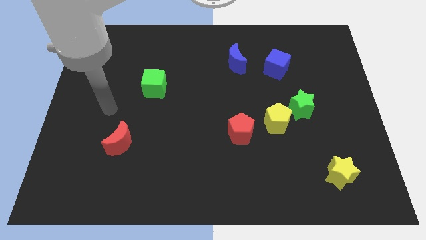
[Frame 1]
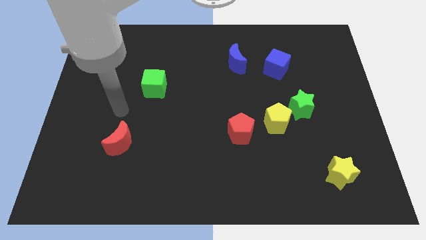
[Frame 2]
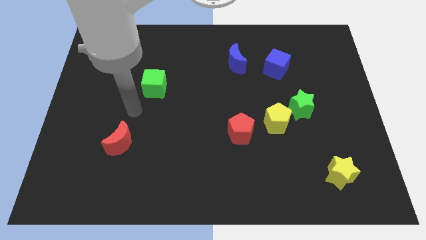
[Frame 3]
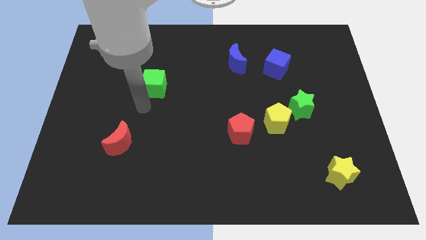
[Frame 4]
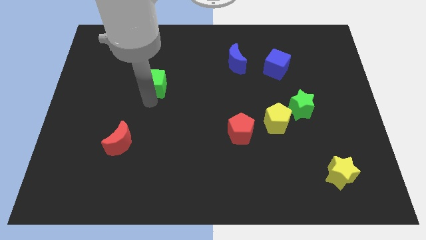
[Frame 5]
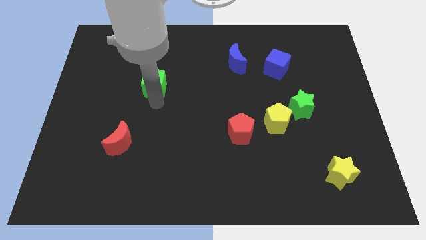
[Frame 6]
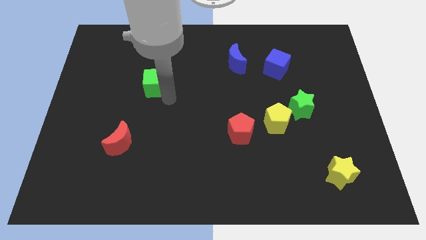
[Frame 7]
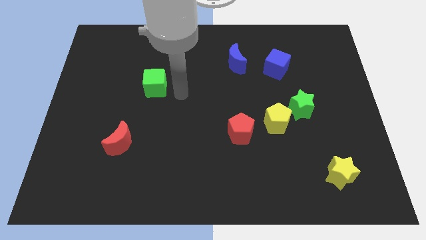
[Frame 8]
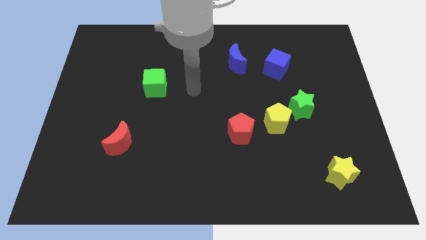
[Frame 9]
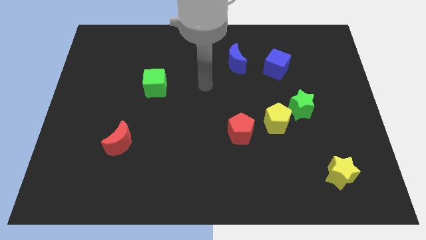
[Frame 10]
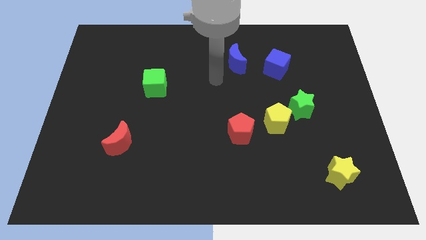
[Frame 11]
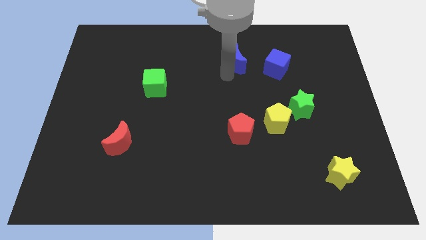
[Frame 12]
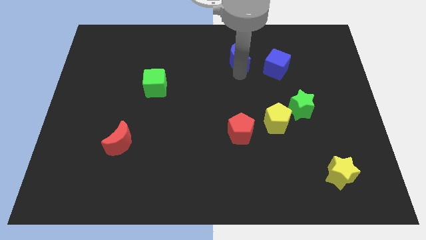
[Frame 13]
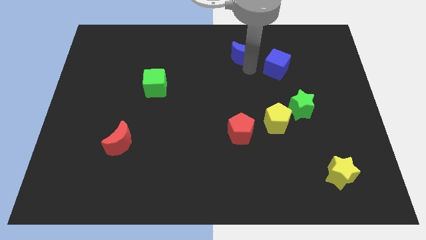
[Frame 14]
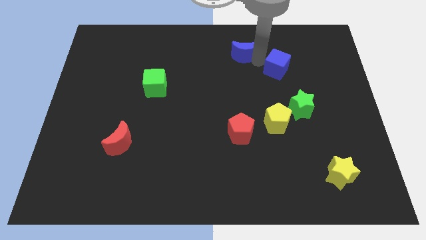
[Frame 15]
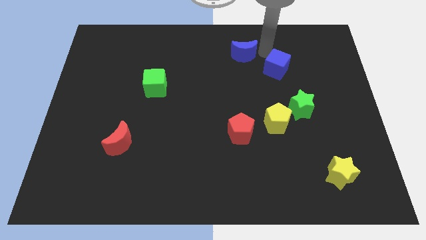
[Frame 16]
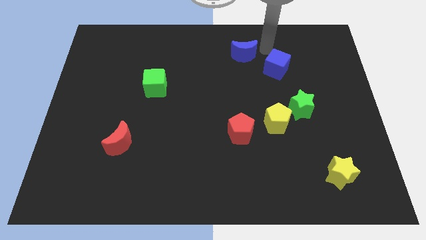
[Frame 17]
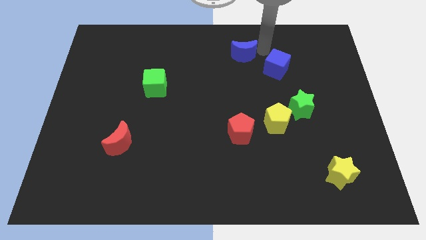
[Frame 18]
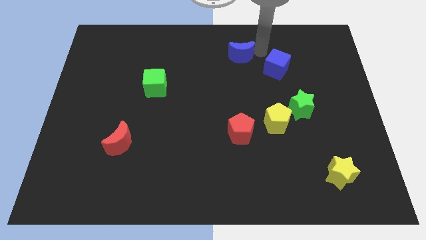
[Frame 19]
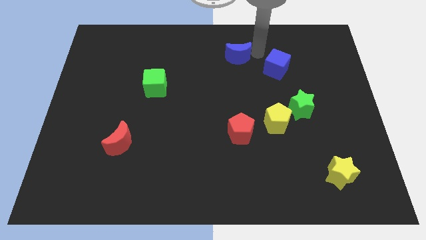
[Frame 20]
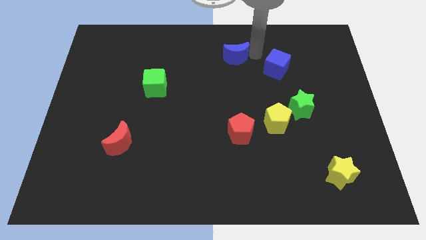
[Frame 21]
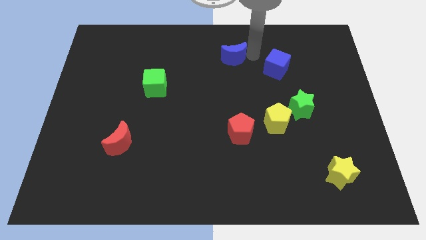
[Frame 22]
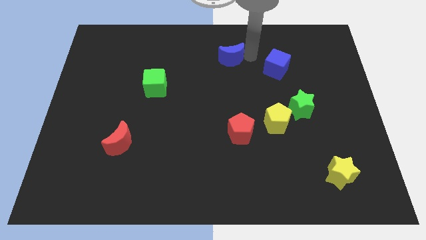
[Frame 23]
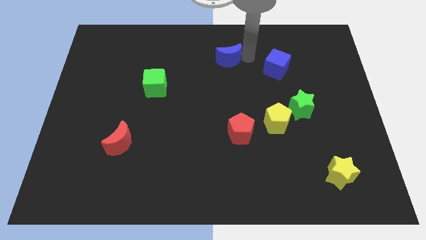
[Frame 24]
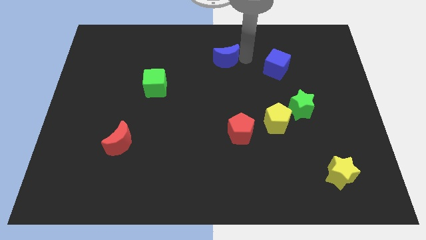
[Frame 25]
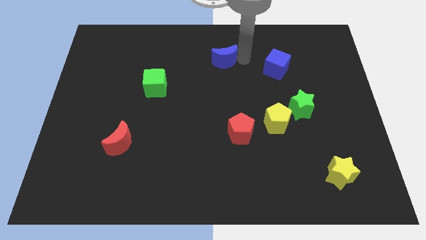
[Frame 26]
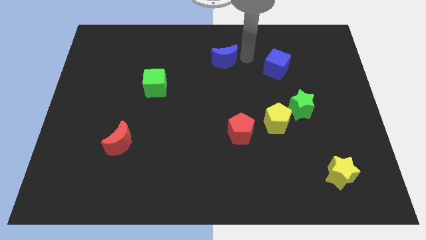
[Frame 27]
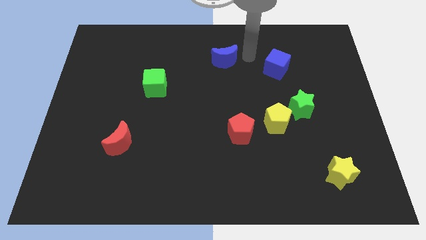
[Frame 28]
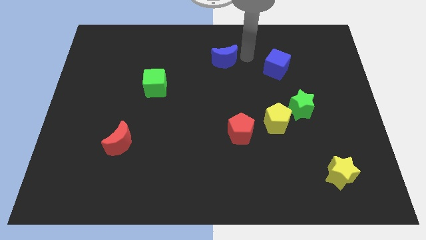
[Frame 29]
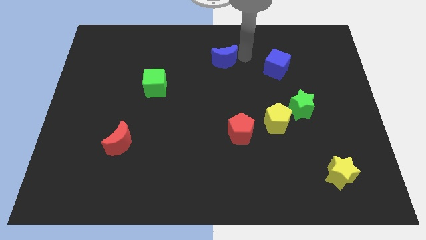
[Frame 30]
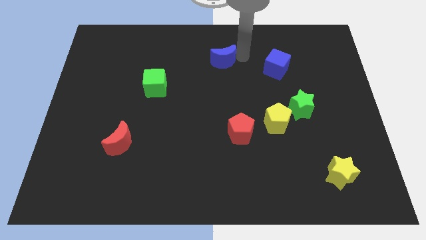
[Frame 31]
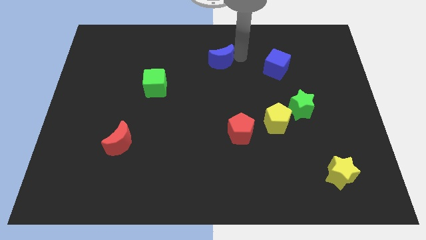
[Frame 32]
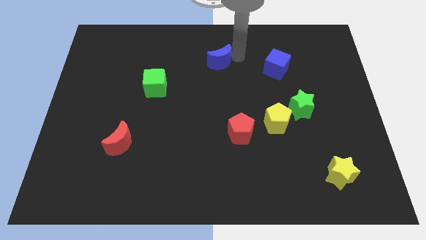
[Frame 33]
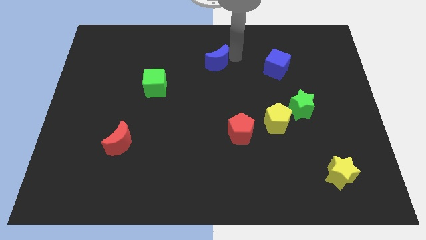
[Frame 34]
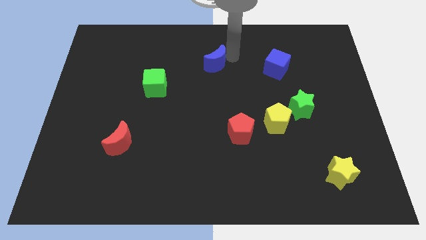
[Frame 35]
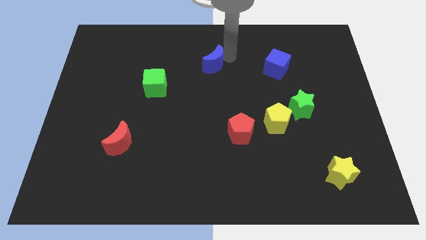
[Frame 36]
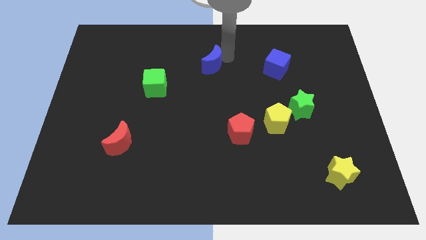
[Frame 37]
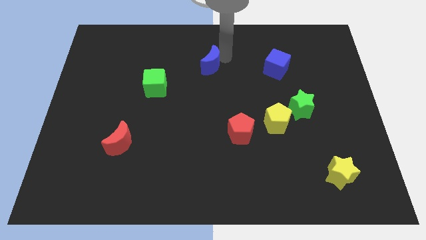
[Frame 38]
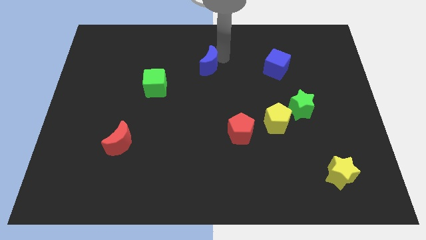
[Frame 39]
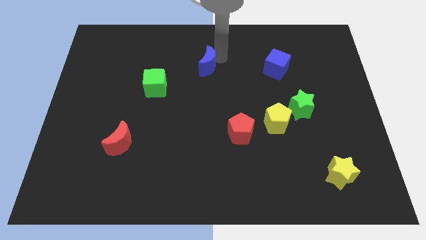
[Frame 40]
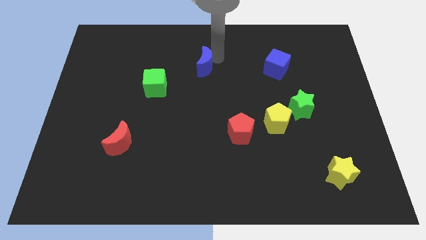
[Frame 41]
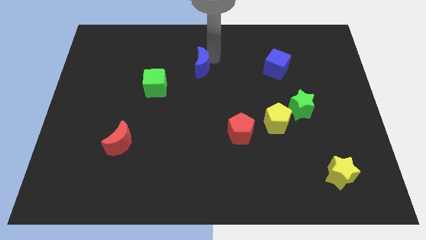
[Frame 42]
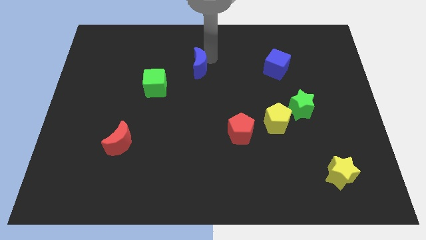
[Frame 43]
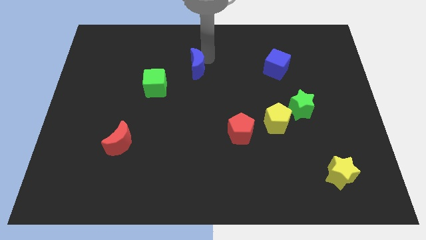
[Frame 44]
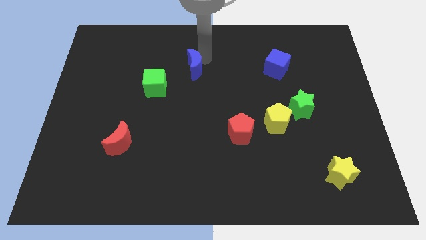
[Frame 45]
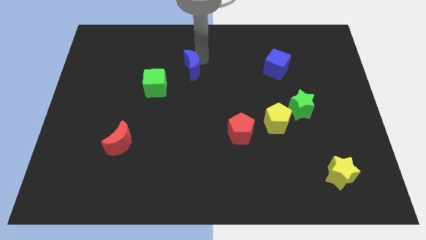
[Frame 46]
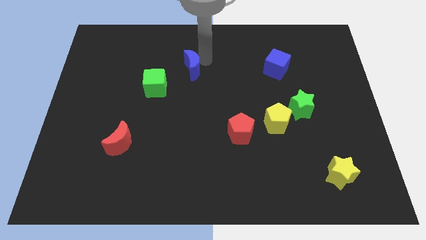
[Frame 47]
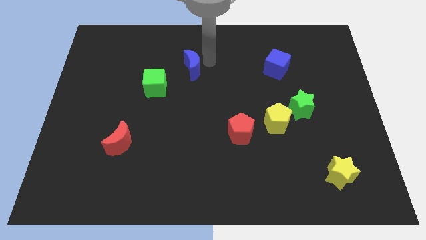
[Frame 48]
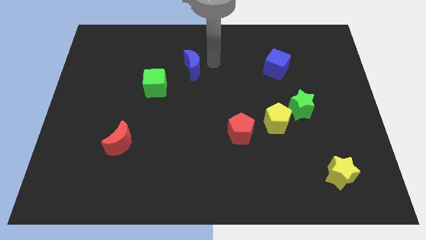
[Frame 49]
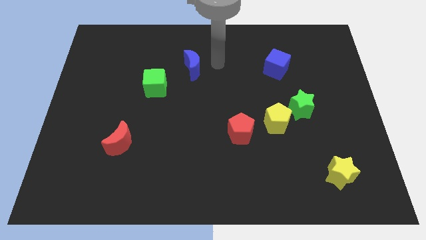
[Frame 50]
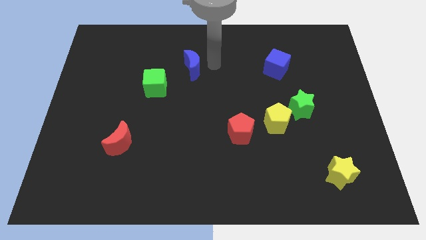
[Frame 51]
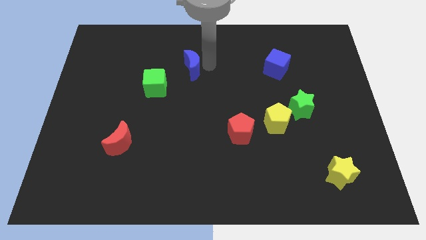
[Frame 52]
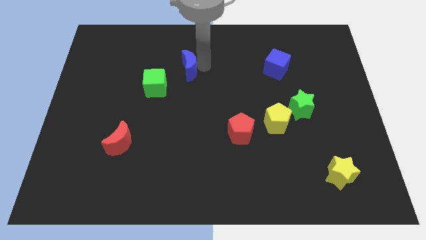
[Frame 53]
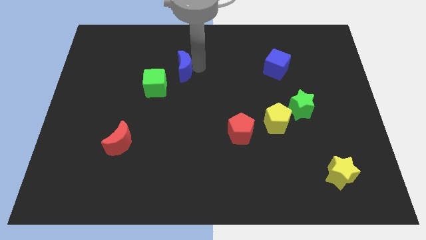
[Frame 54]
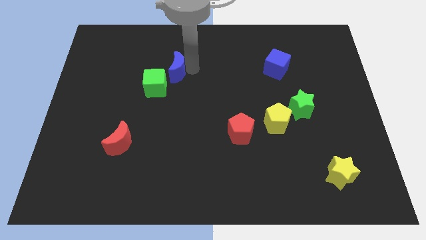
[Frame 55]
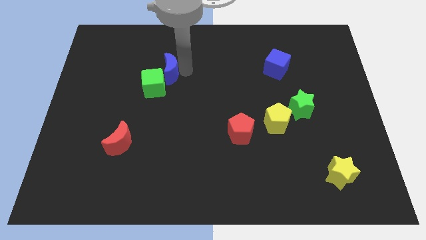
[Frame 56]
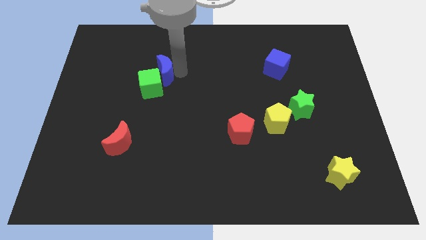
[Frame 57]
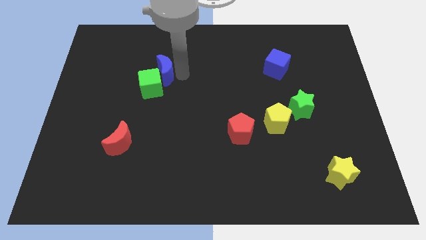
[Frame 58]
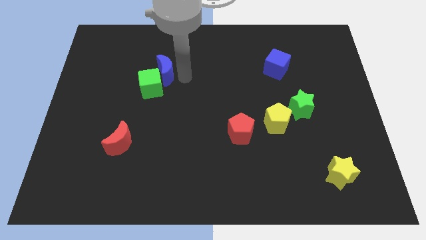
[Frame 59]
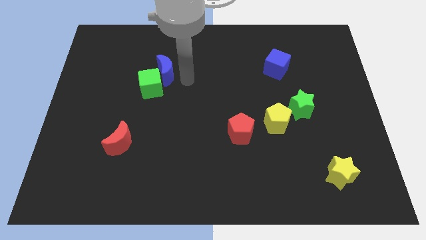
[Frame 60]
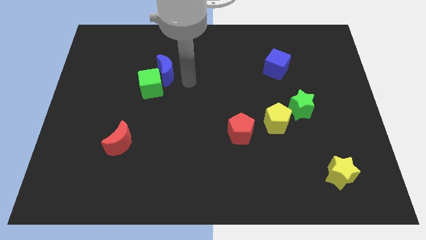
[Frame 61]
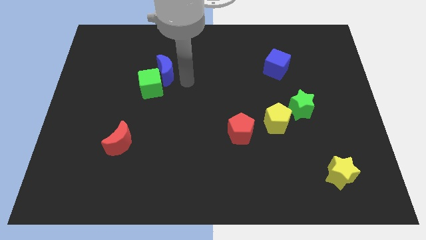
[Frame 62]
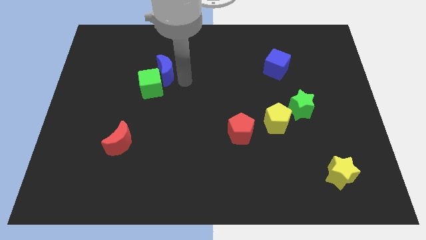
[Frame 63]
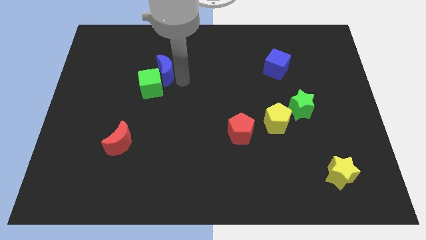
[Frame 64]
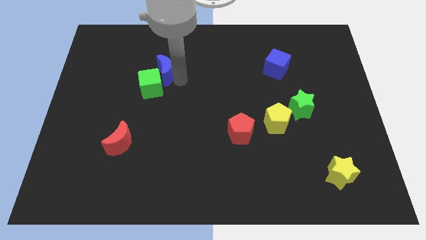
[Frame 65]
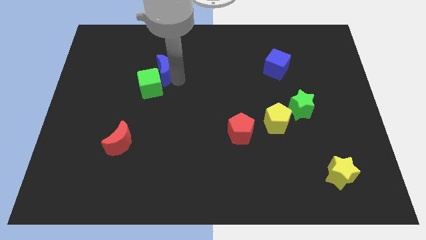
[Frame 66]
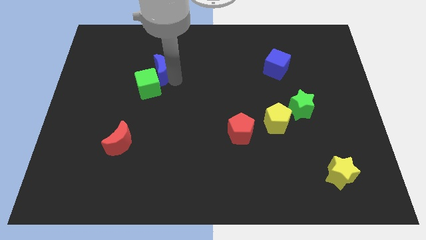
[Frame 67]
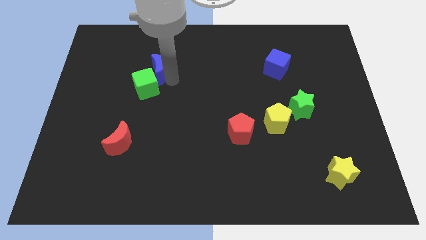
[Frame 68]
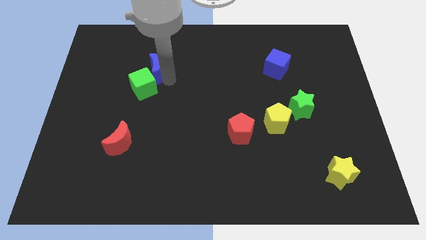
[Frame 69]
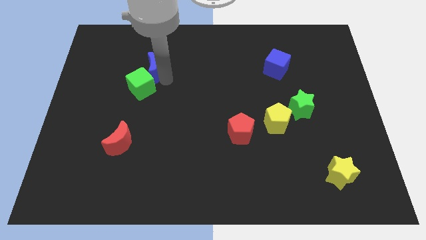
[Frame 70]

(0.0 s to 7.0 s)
push the blue moon to the left

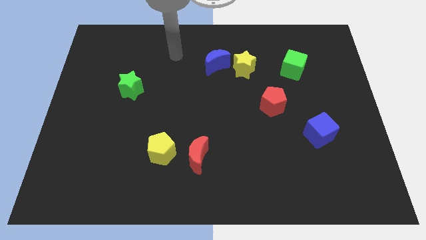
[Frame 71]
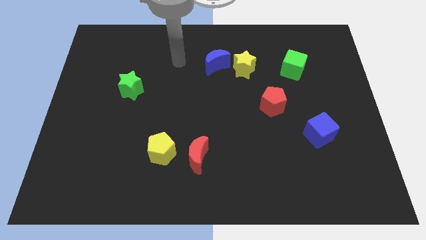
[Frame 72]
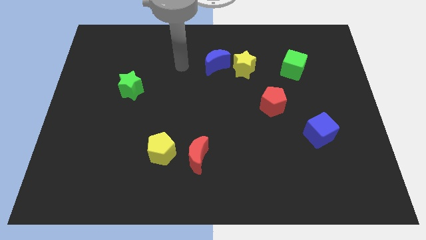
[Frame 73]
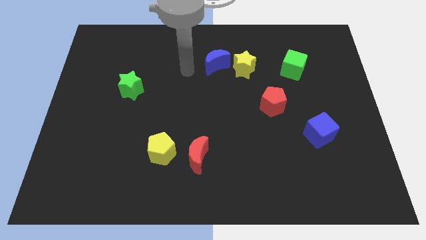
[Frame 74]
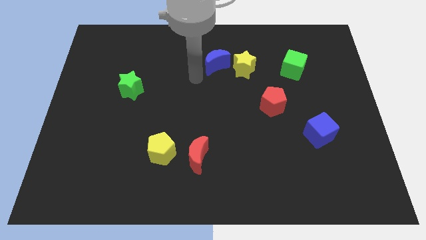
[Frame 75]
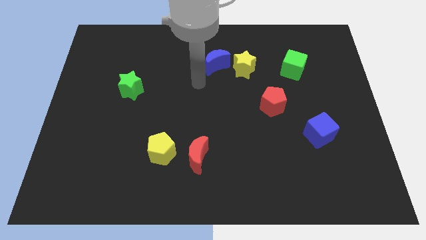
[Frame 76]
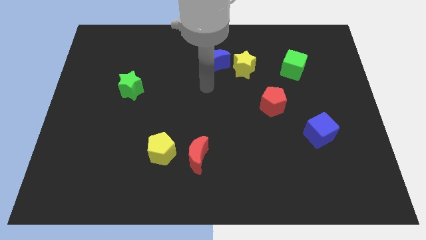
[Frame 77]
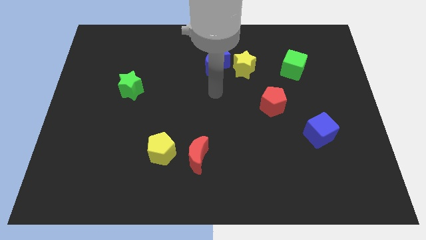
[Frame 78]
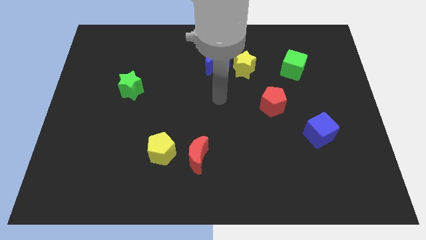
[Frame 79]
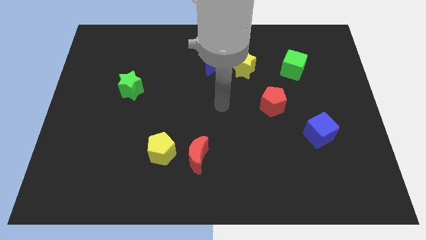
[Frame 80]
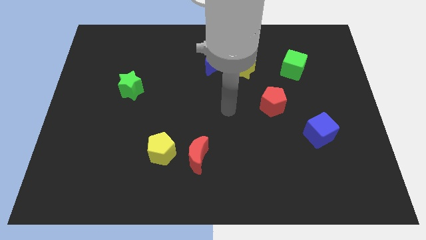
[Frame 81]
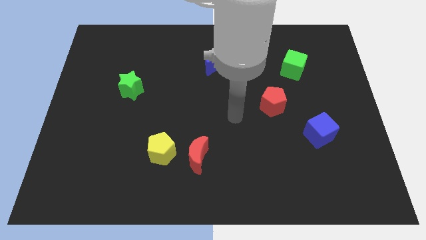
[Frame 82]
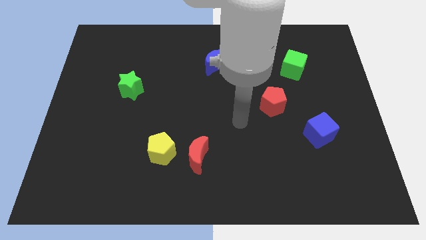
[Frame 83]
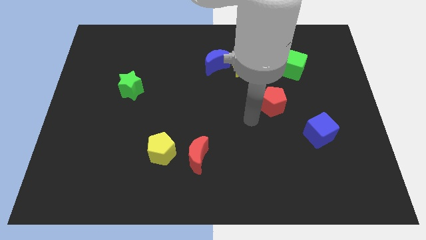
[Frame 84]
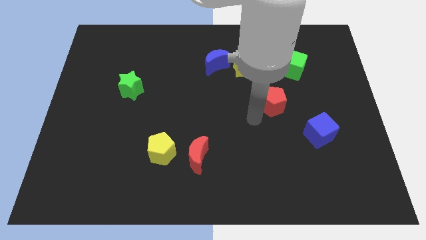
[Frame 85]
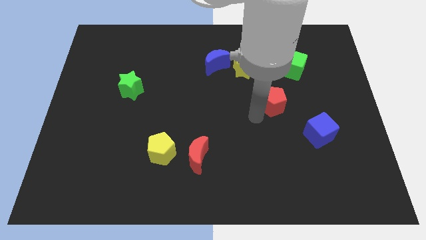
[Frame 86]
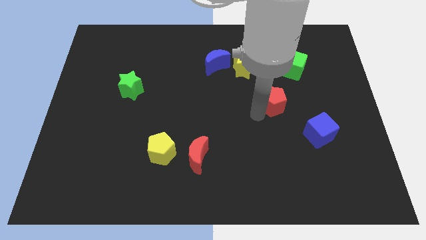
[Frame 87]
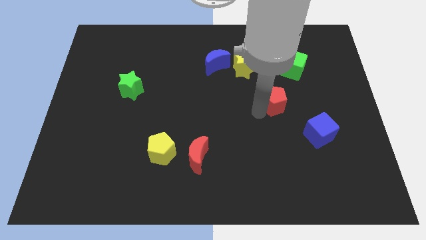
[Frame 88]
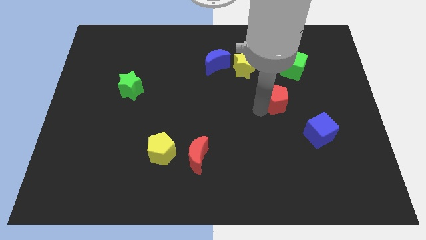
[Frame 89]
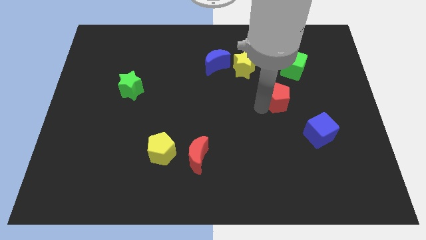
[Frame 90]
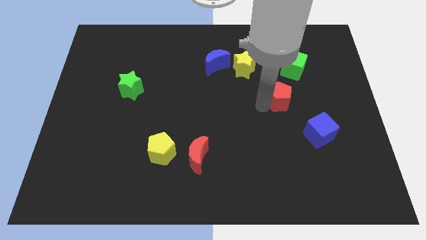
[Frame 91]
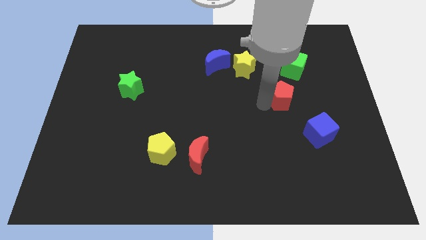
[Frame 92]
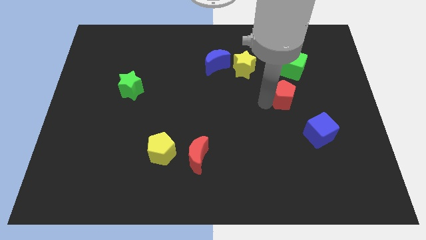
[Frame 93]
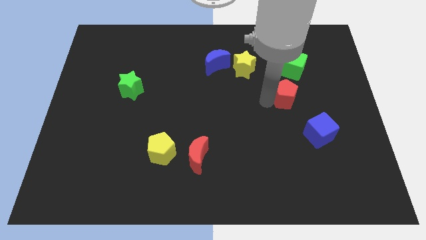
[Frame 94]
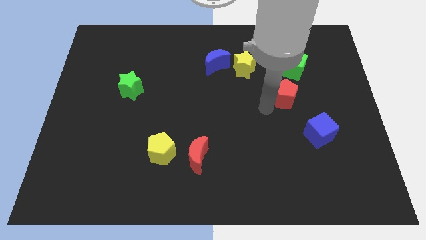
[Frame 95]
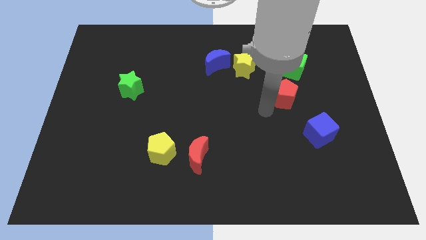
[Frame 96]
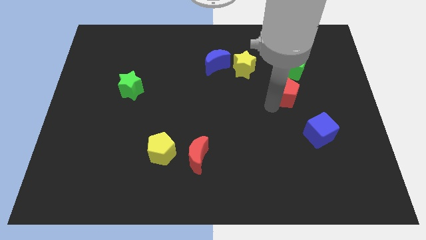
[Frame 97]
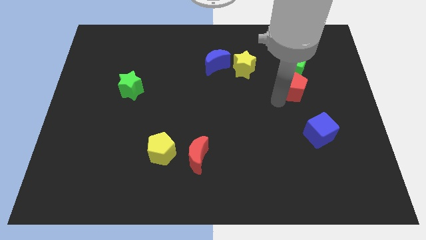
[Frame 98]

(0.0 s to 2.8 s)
slightly move the red pentagon up and then right
